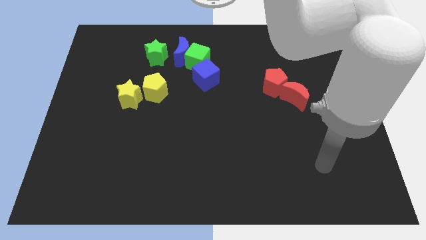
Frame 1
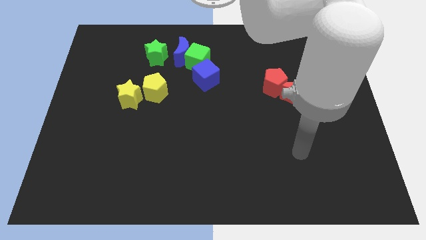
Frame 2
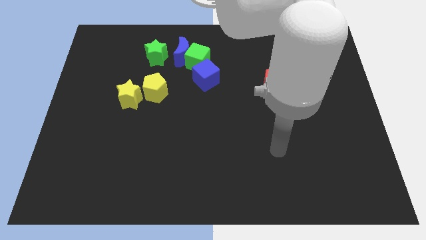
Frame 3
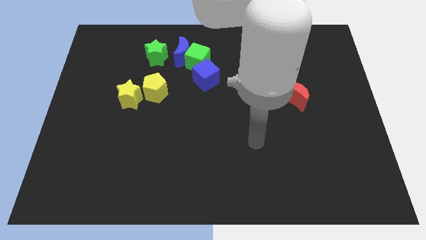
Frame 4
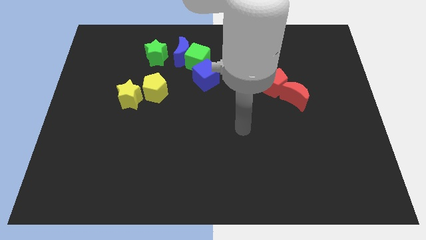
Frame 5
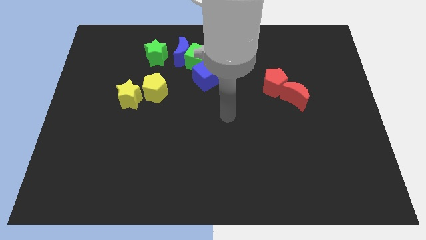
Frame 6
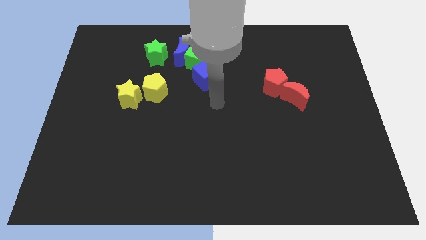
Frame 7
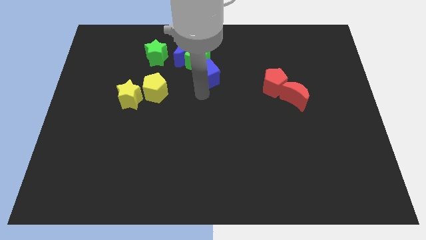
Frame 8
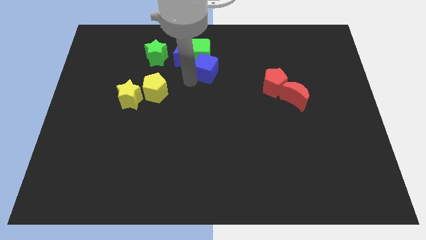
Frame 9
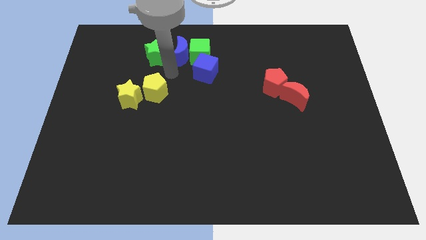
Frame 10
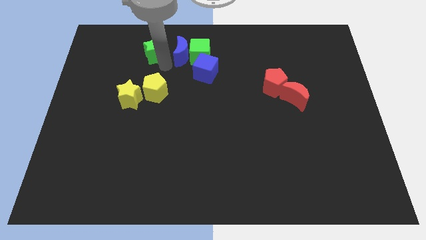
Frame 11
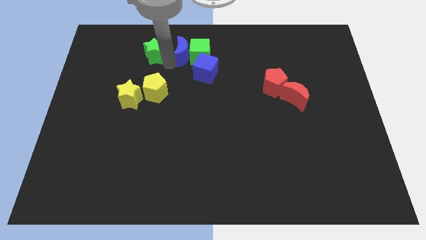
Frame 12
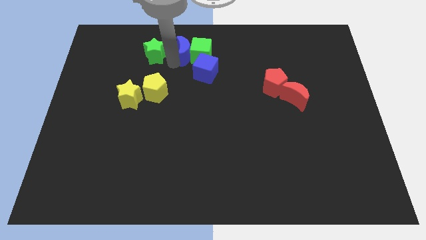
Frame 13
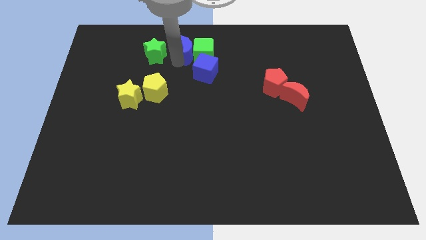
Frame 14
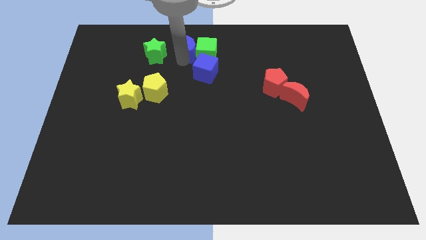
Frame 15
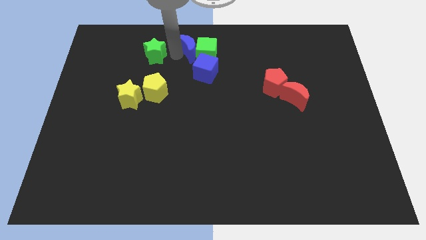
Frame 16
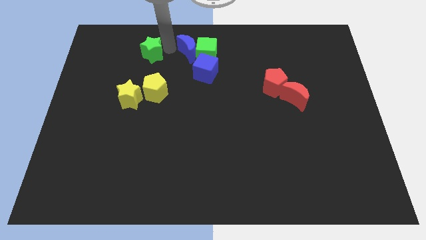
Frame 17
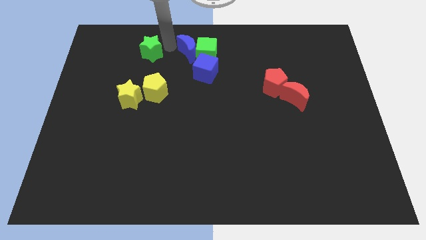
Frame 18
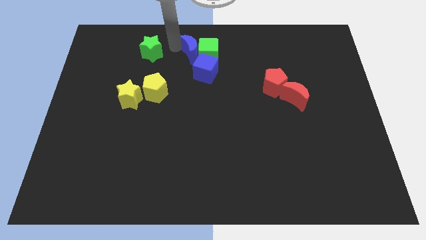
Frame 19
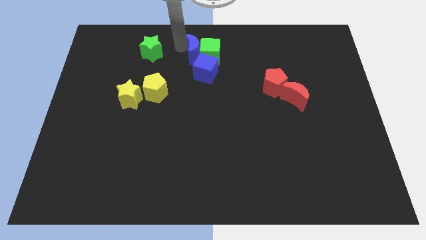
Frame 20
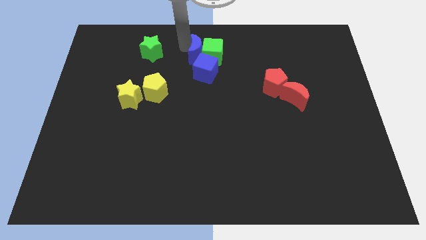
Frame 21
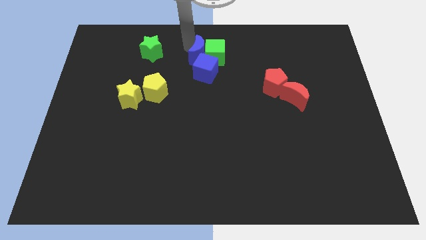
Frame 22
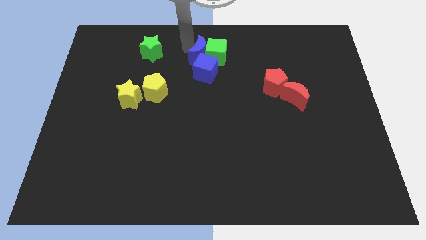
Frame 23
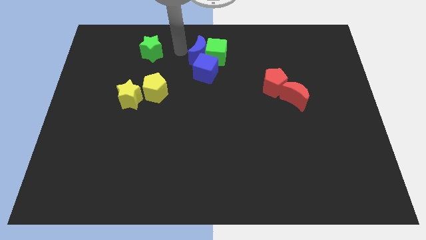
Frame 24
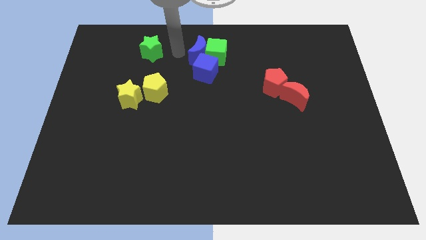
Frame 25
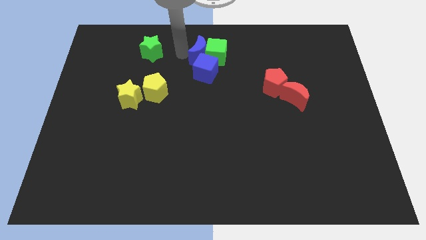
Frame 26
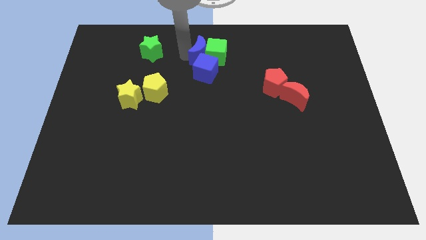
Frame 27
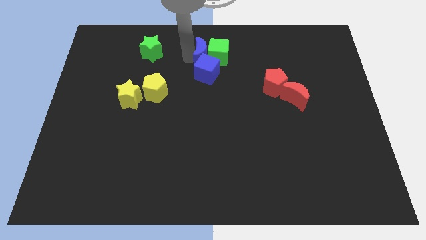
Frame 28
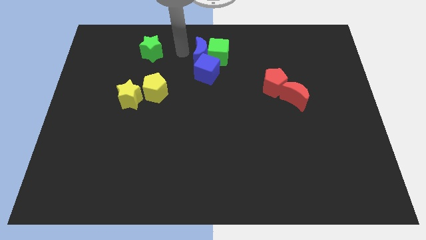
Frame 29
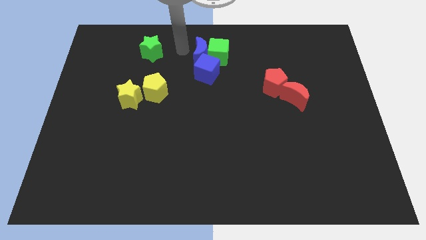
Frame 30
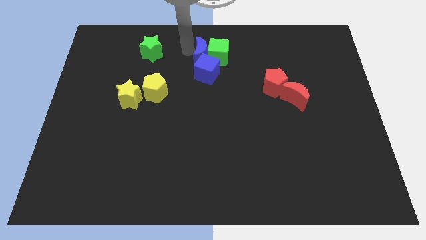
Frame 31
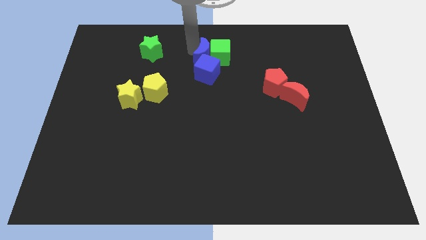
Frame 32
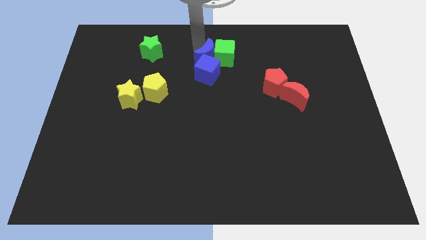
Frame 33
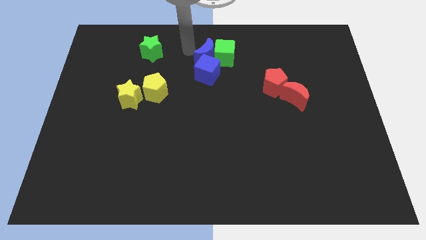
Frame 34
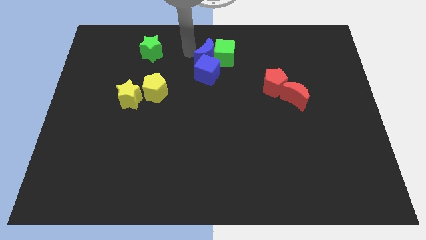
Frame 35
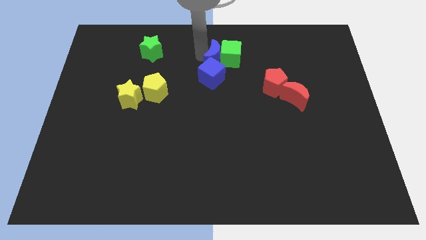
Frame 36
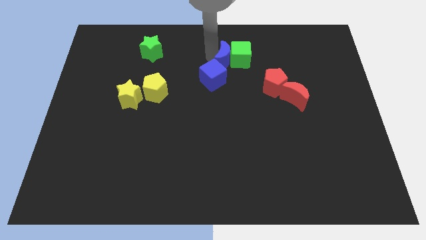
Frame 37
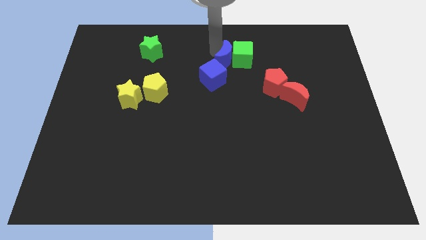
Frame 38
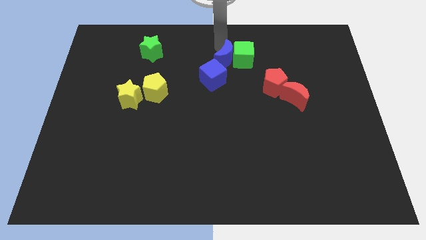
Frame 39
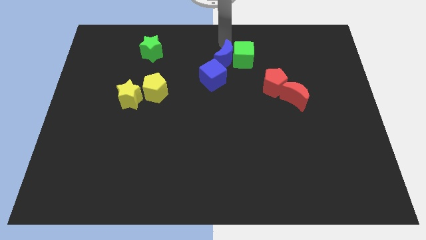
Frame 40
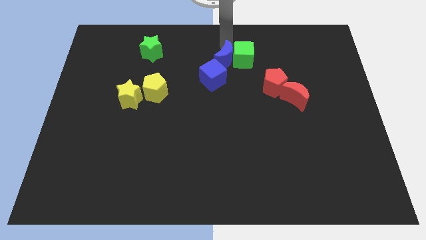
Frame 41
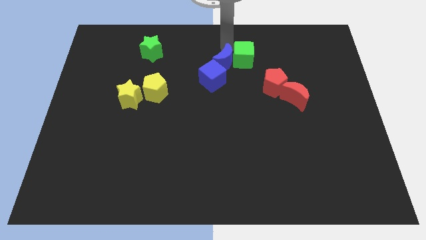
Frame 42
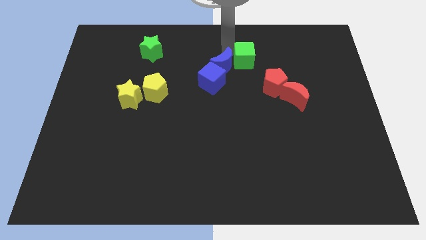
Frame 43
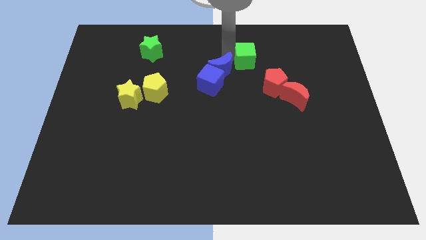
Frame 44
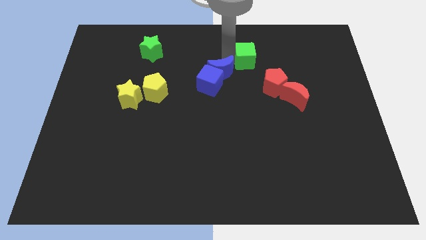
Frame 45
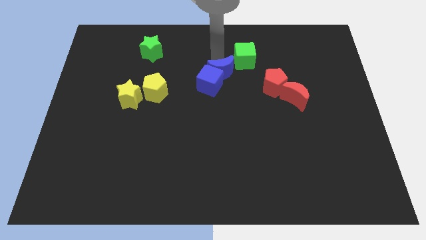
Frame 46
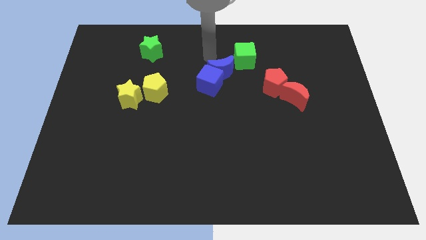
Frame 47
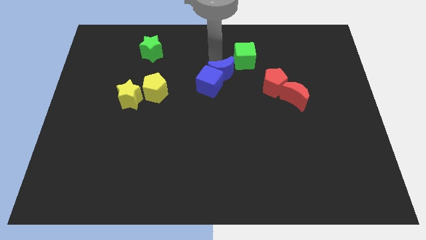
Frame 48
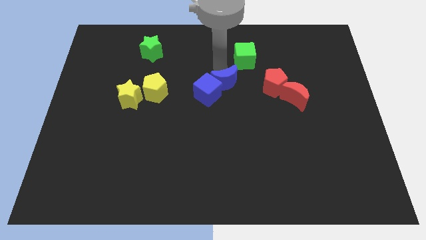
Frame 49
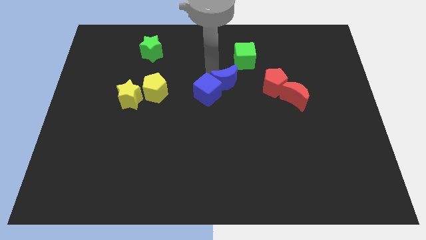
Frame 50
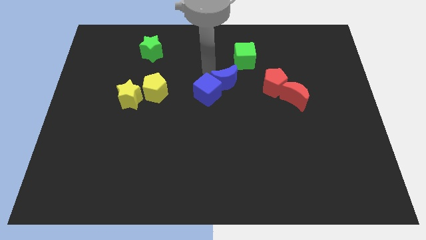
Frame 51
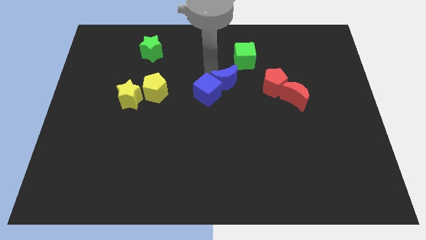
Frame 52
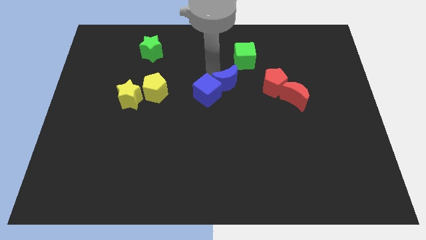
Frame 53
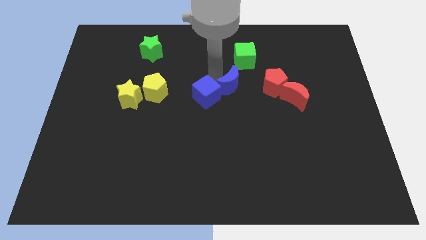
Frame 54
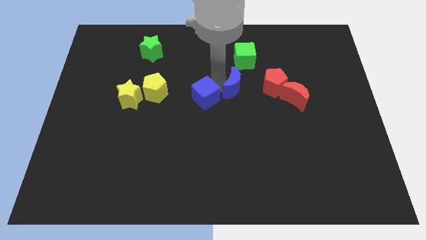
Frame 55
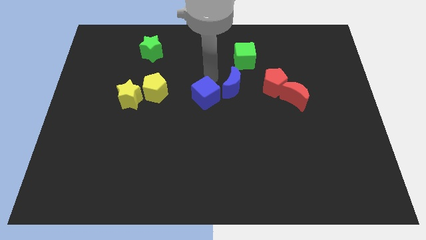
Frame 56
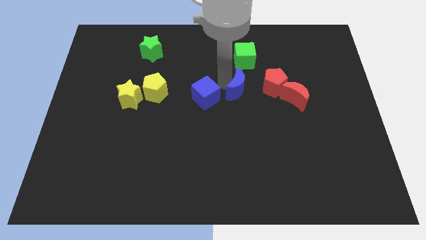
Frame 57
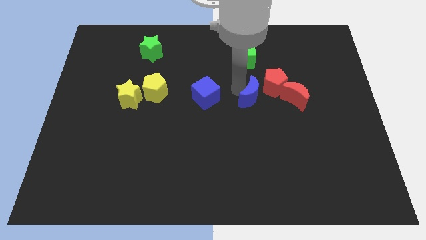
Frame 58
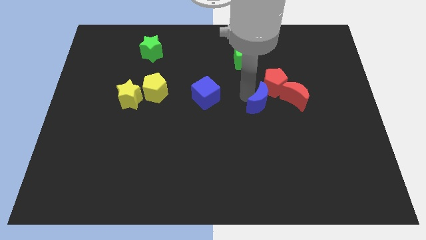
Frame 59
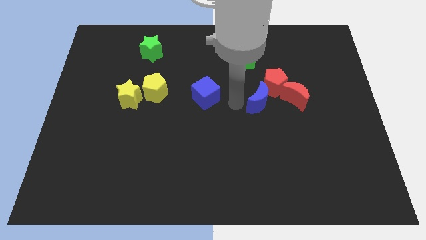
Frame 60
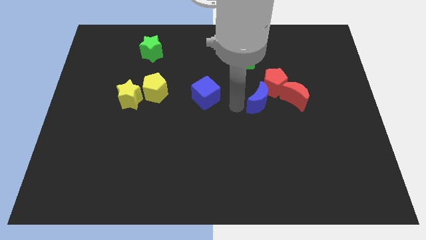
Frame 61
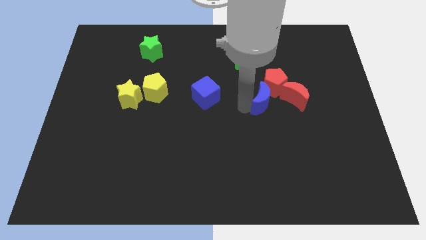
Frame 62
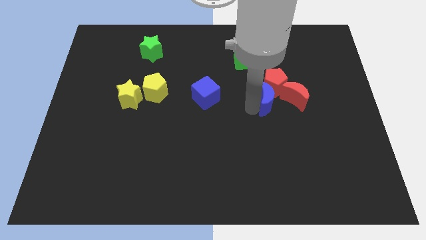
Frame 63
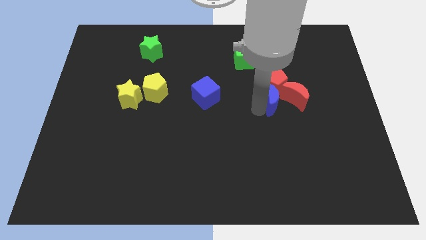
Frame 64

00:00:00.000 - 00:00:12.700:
slide the blue moon towards the red moon

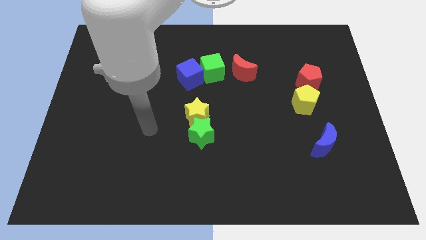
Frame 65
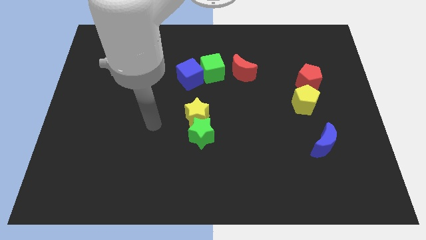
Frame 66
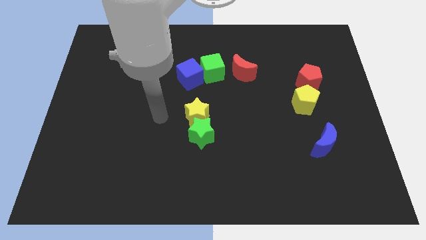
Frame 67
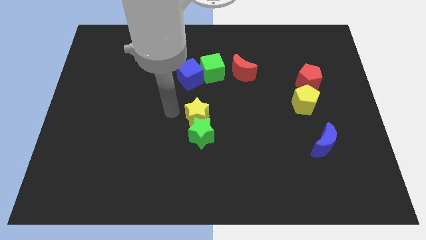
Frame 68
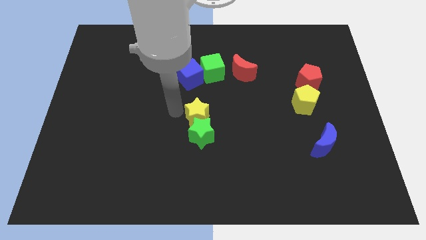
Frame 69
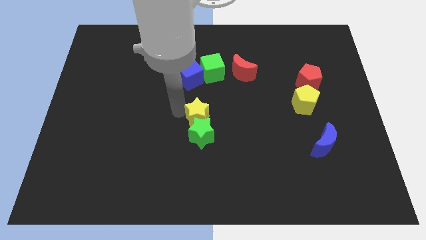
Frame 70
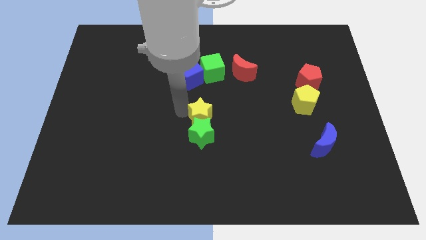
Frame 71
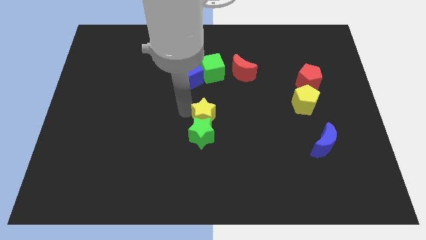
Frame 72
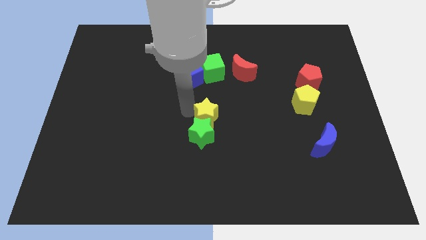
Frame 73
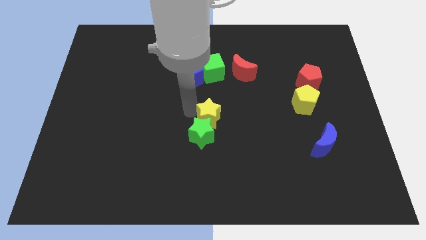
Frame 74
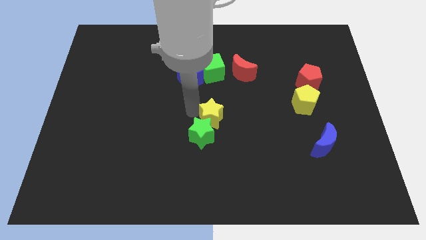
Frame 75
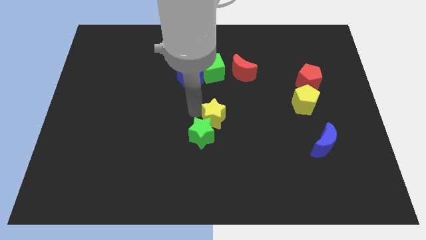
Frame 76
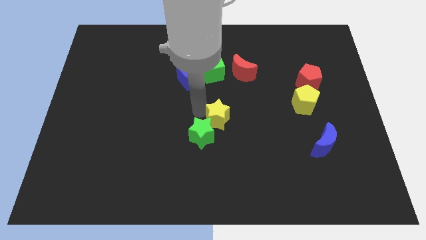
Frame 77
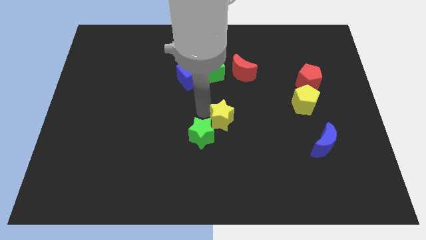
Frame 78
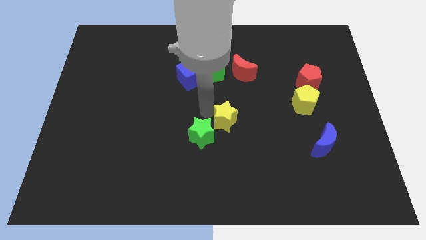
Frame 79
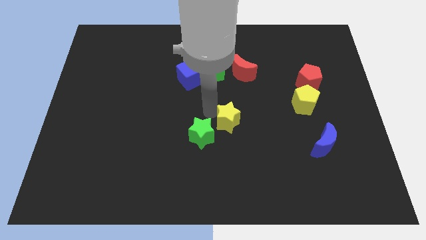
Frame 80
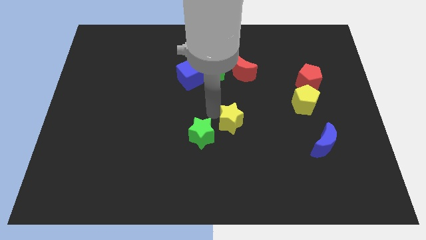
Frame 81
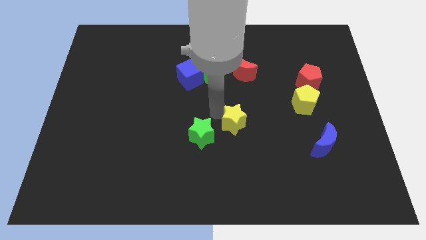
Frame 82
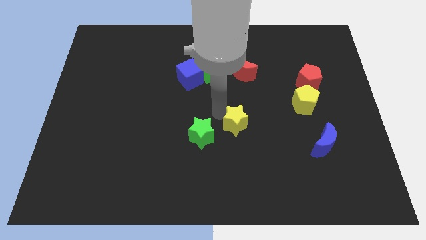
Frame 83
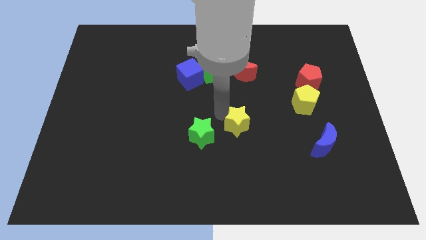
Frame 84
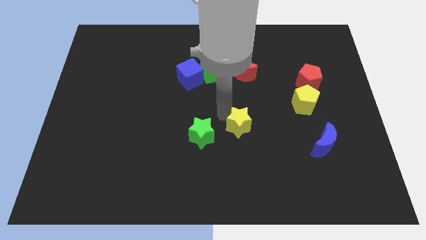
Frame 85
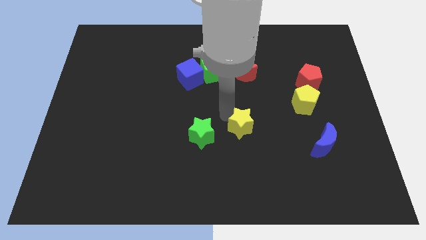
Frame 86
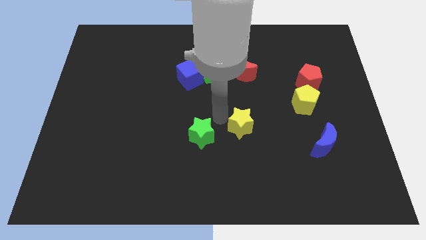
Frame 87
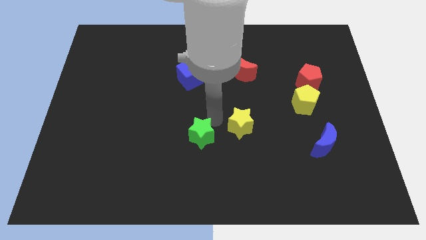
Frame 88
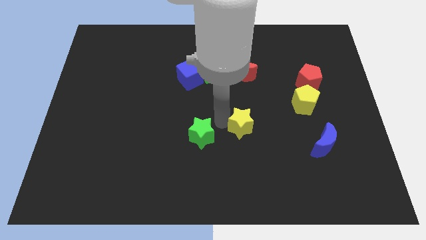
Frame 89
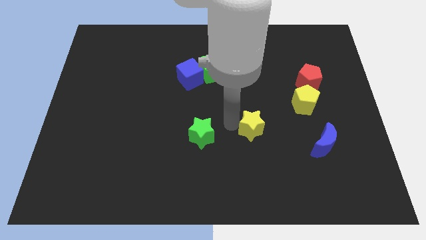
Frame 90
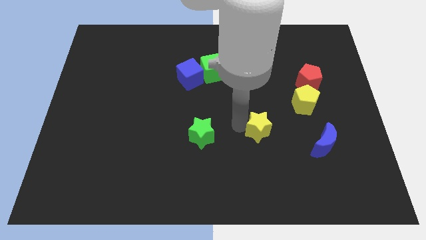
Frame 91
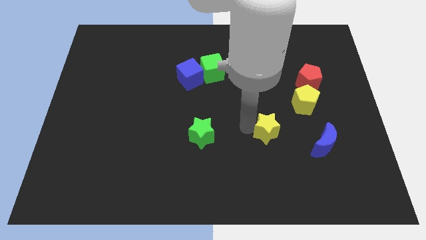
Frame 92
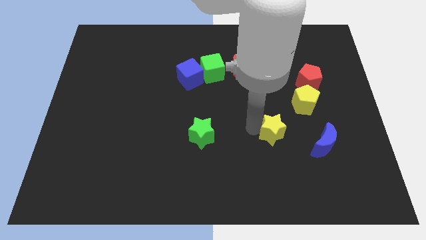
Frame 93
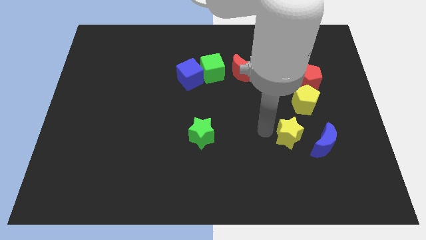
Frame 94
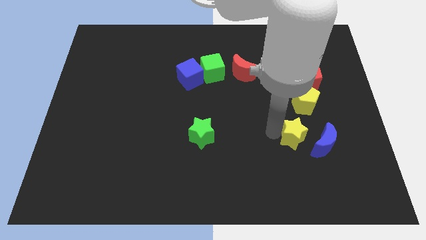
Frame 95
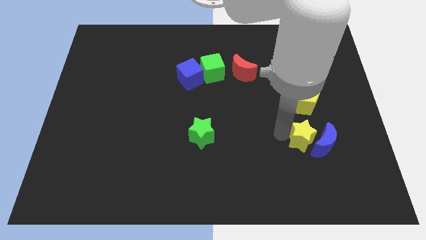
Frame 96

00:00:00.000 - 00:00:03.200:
move the yellow star towards the blue moon
